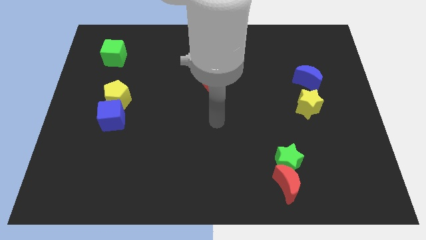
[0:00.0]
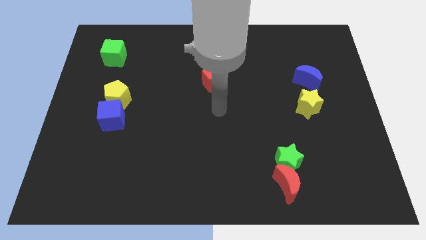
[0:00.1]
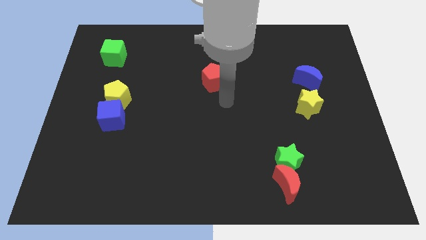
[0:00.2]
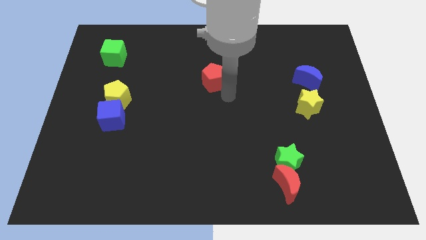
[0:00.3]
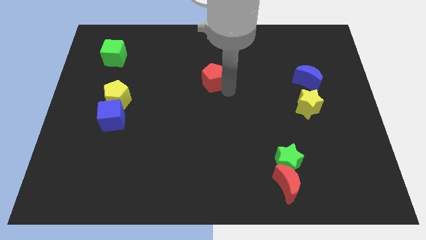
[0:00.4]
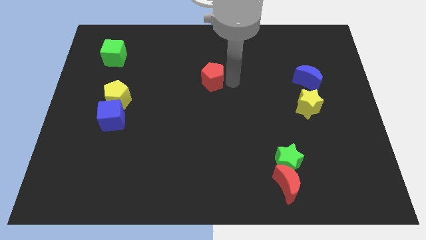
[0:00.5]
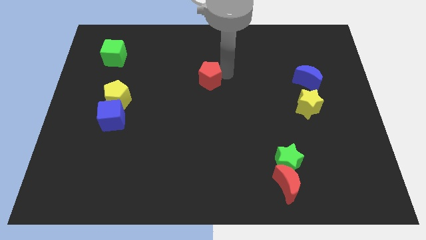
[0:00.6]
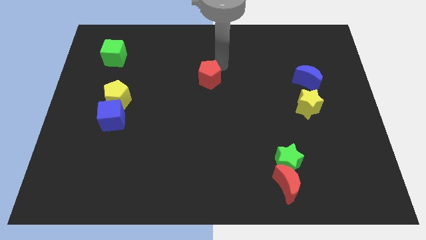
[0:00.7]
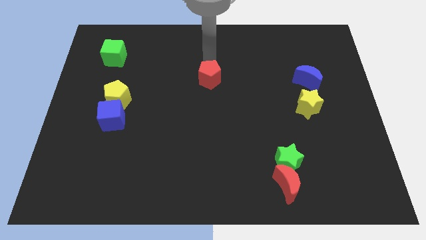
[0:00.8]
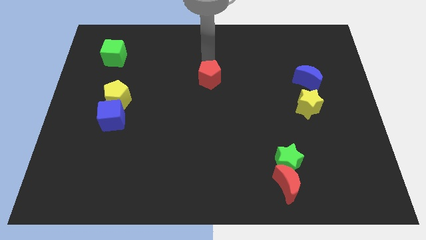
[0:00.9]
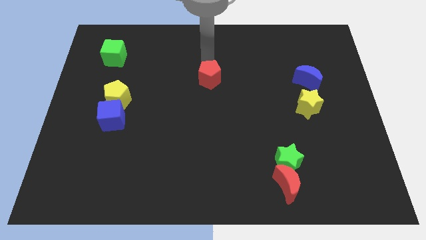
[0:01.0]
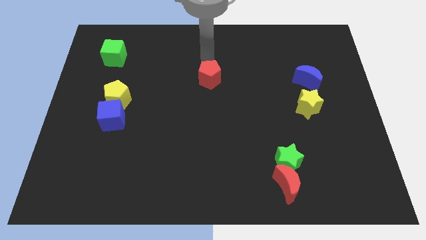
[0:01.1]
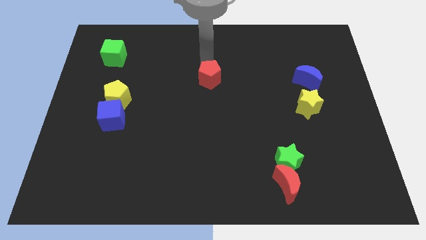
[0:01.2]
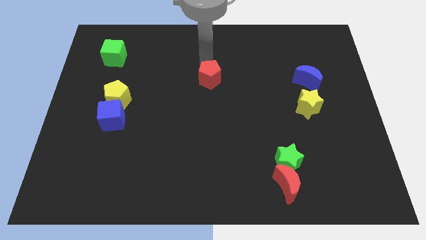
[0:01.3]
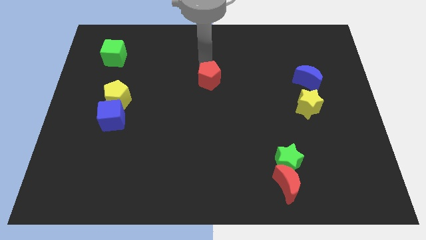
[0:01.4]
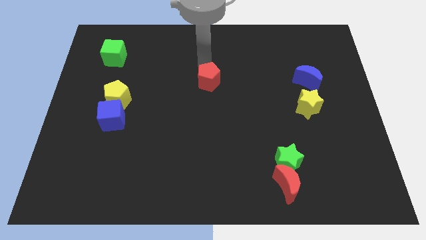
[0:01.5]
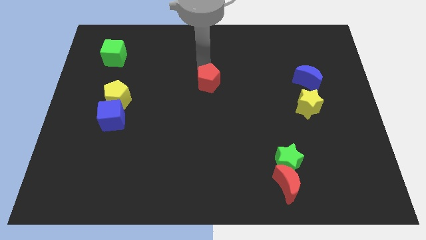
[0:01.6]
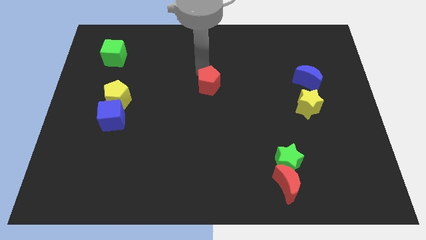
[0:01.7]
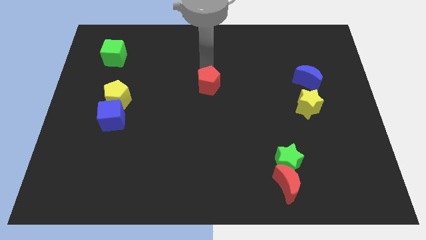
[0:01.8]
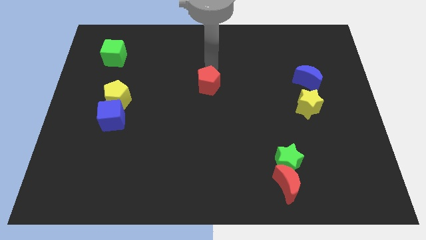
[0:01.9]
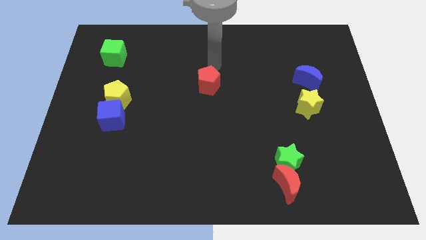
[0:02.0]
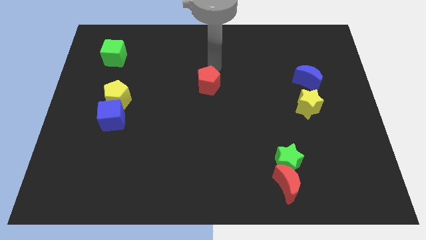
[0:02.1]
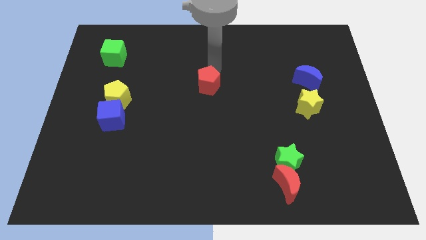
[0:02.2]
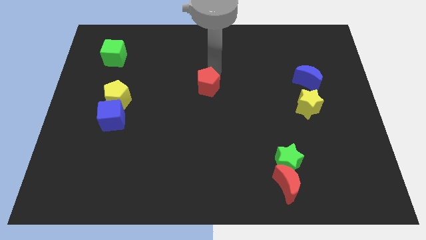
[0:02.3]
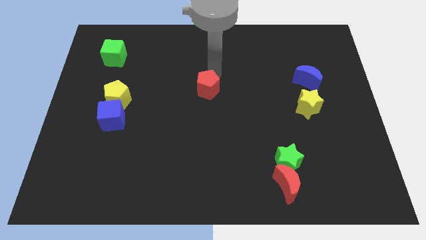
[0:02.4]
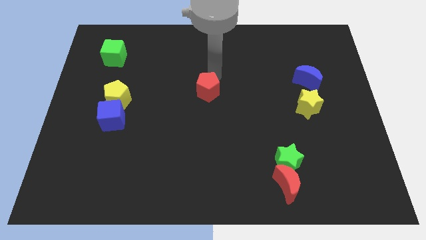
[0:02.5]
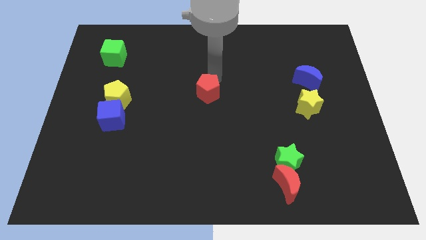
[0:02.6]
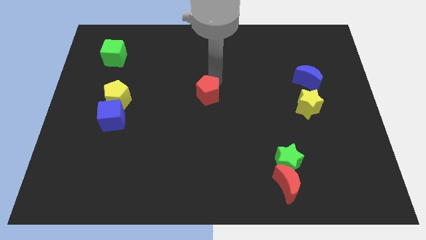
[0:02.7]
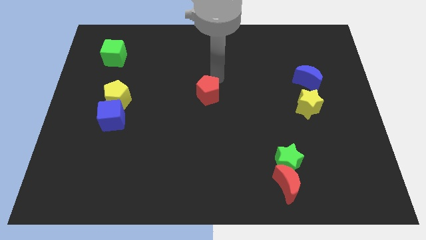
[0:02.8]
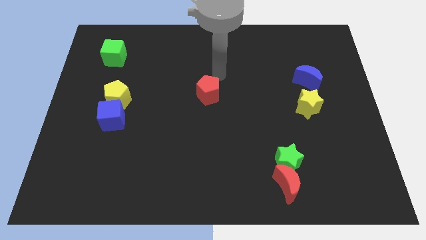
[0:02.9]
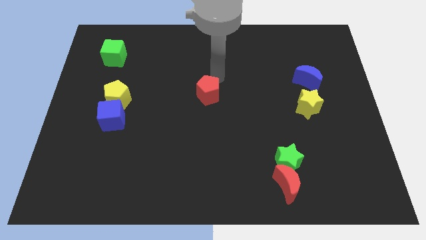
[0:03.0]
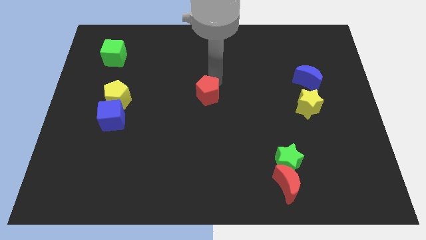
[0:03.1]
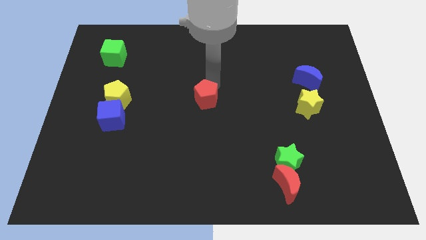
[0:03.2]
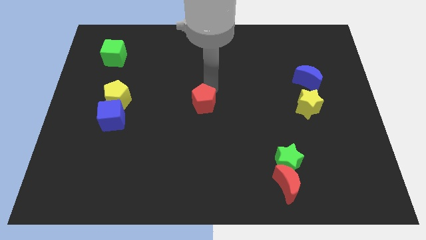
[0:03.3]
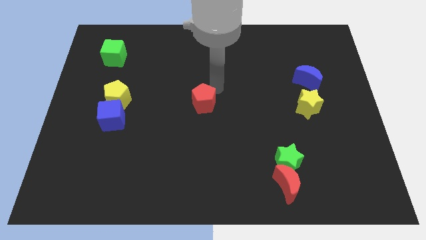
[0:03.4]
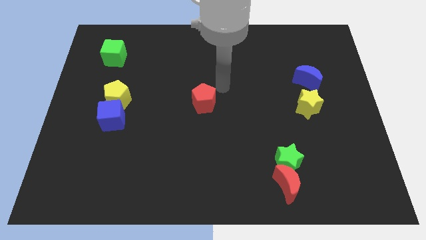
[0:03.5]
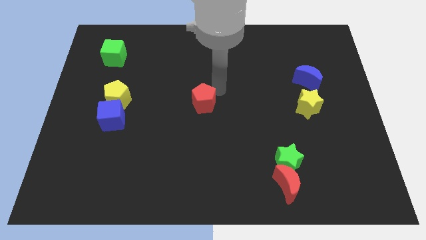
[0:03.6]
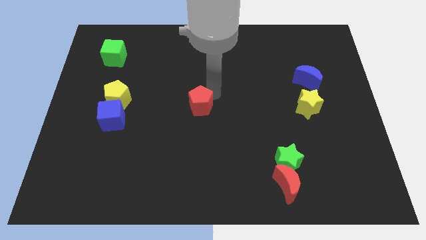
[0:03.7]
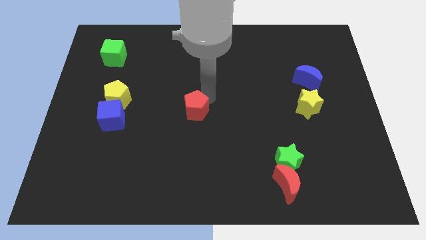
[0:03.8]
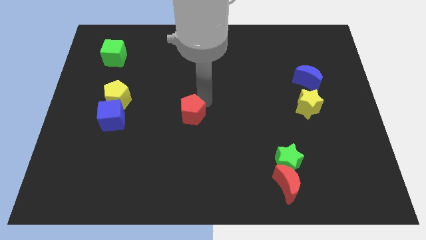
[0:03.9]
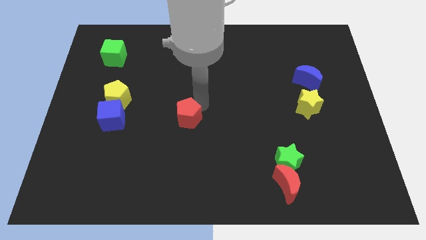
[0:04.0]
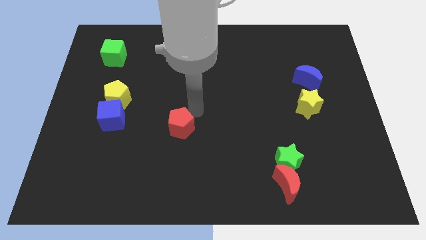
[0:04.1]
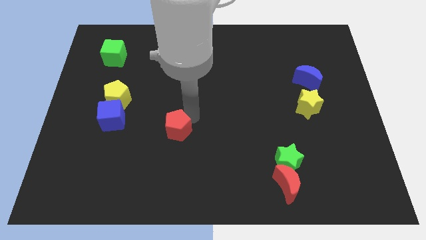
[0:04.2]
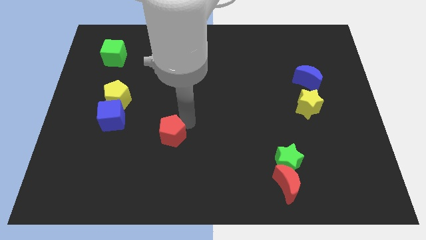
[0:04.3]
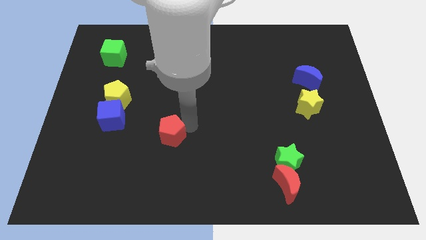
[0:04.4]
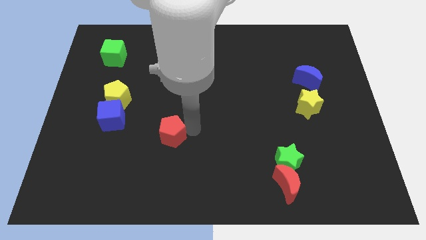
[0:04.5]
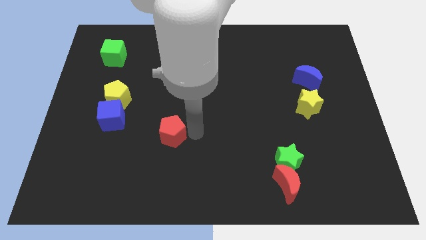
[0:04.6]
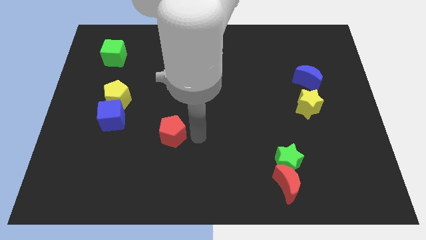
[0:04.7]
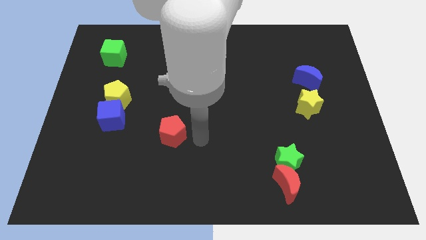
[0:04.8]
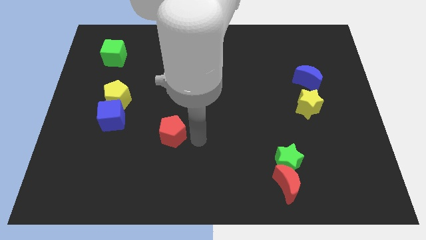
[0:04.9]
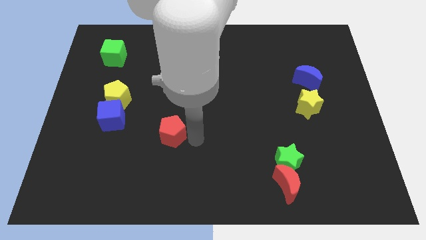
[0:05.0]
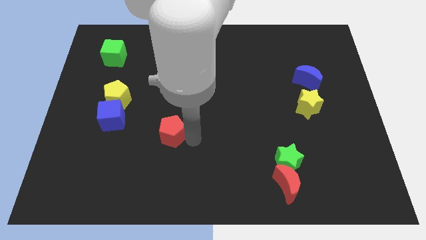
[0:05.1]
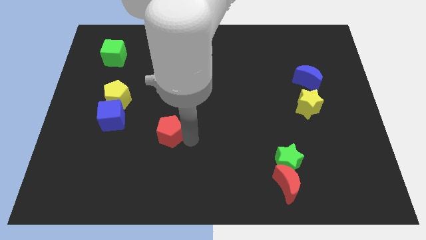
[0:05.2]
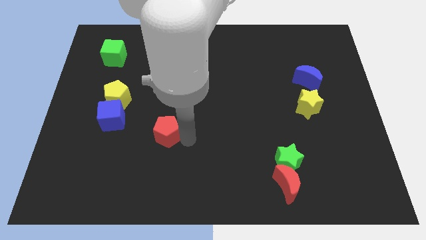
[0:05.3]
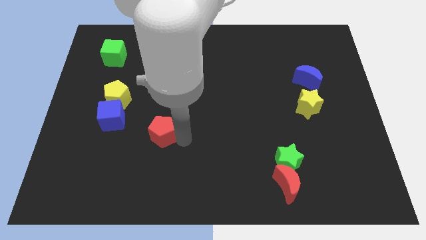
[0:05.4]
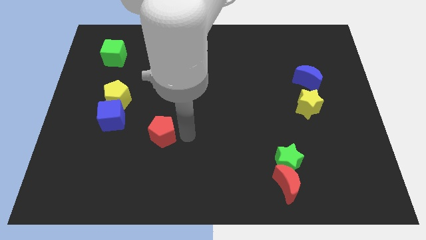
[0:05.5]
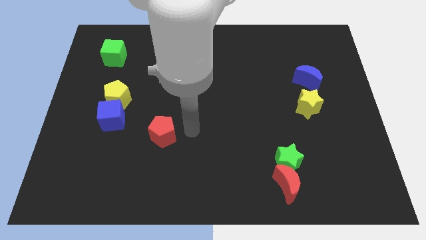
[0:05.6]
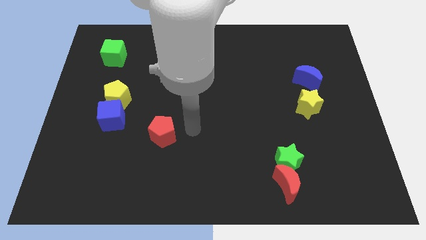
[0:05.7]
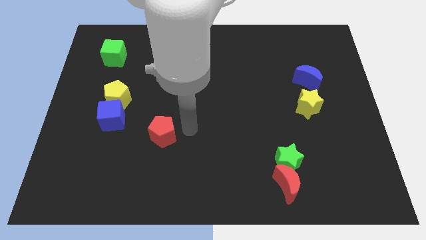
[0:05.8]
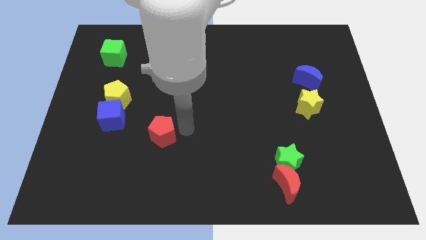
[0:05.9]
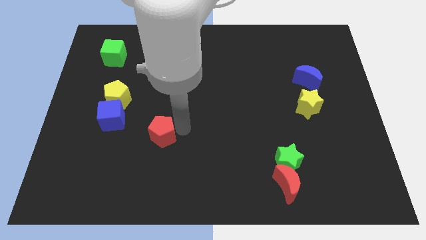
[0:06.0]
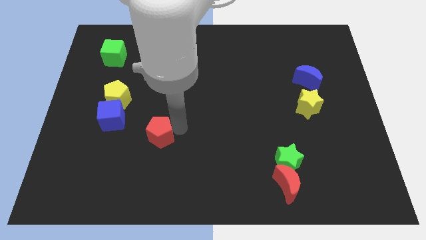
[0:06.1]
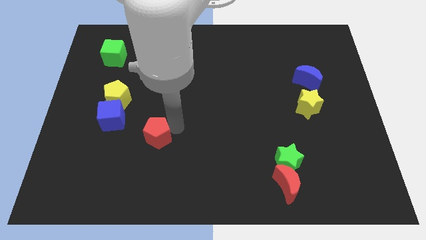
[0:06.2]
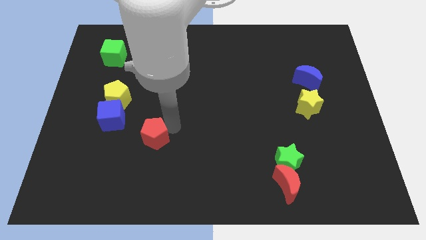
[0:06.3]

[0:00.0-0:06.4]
push the red pentagon to the bottom right of the blue cube
